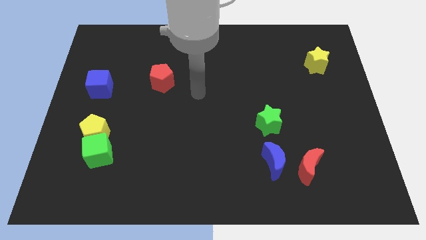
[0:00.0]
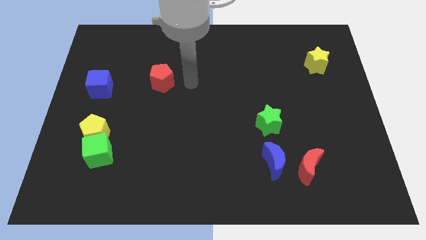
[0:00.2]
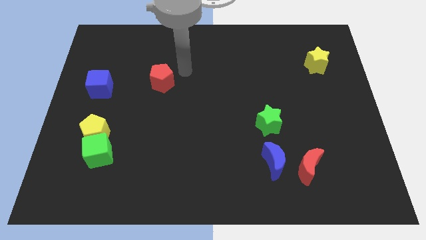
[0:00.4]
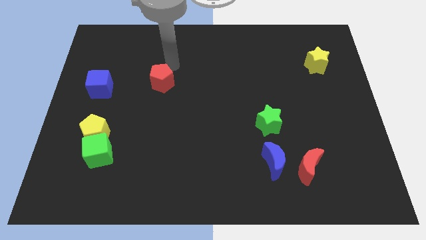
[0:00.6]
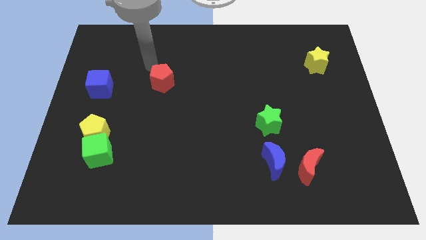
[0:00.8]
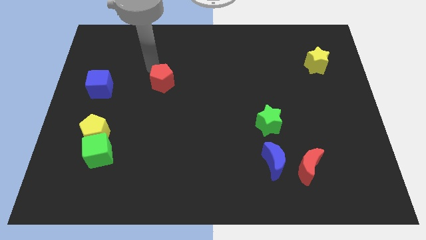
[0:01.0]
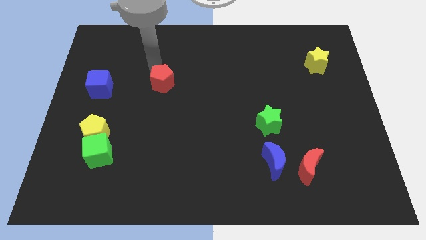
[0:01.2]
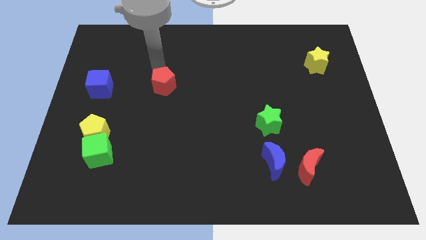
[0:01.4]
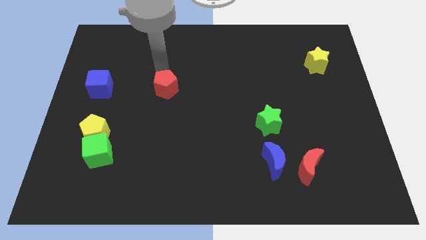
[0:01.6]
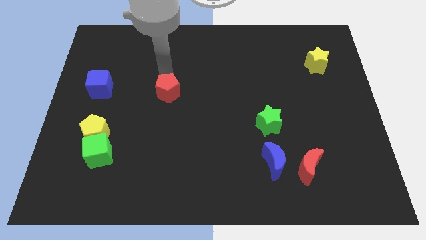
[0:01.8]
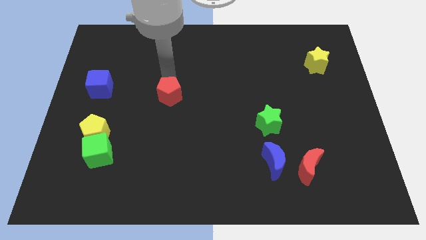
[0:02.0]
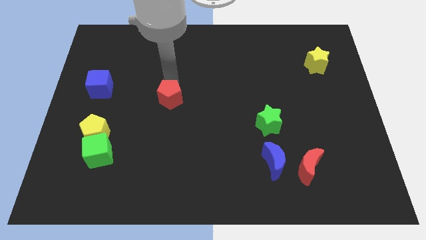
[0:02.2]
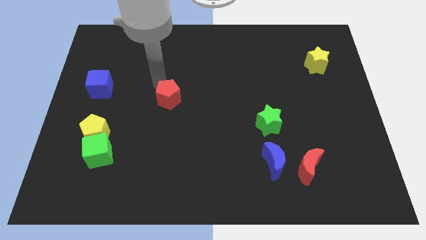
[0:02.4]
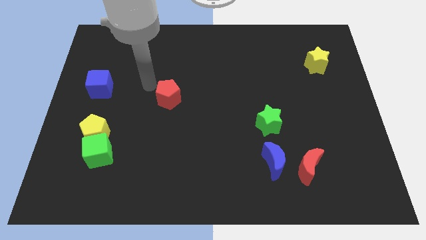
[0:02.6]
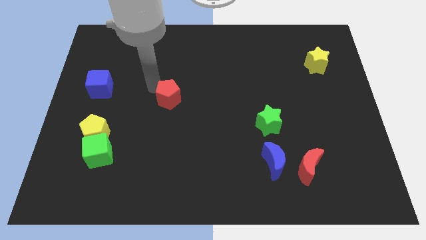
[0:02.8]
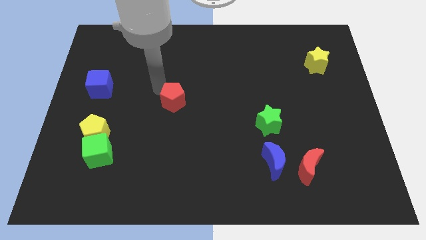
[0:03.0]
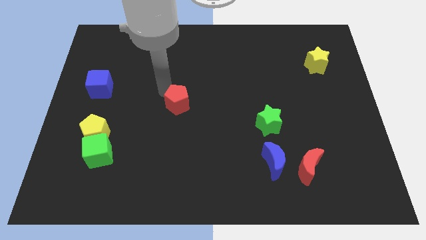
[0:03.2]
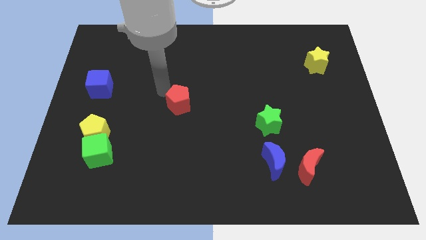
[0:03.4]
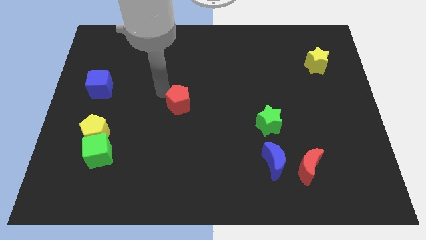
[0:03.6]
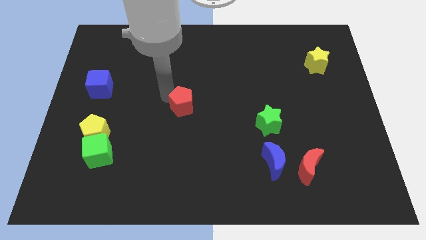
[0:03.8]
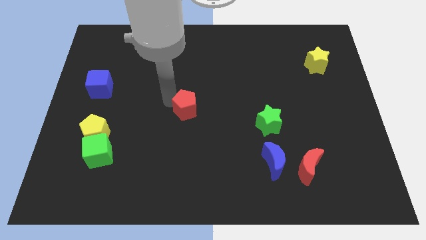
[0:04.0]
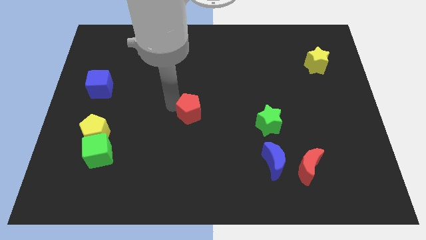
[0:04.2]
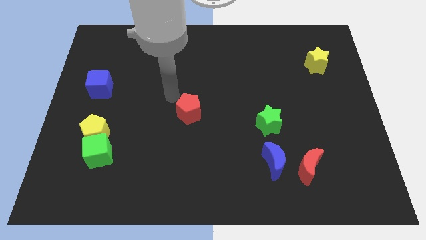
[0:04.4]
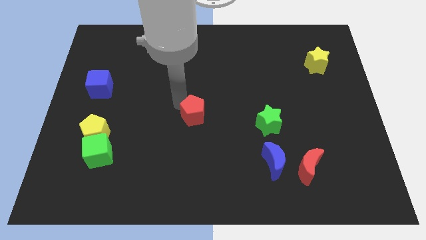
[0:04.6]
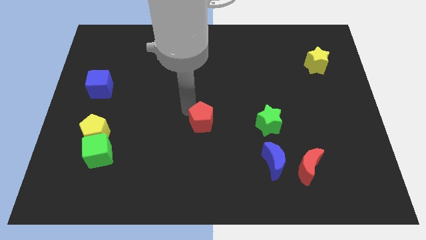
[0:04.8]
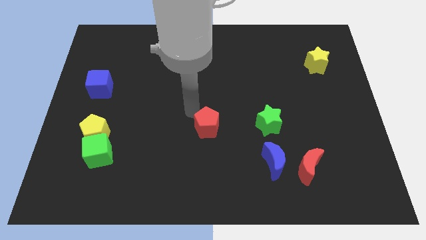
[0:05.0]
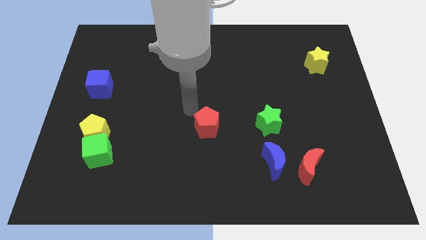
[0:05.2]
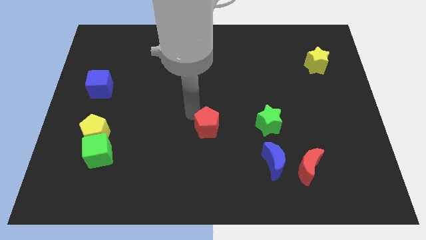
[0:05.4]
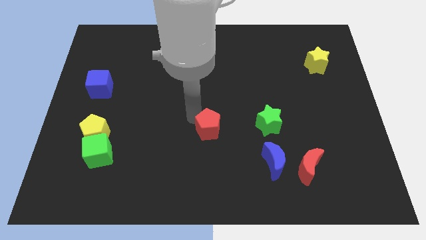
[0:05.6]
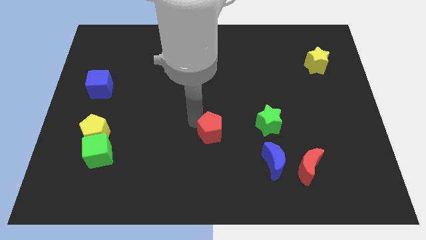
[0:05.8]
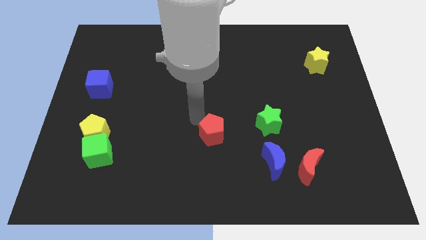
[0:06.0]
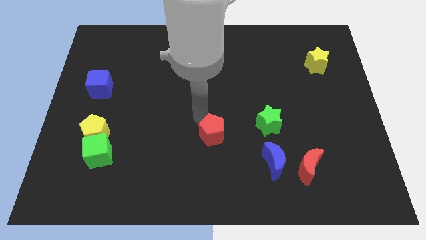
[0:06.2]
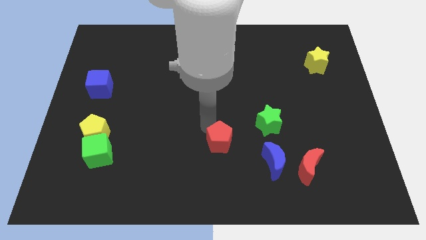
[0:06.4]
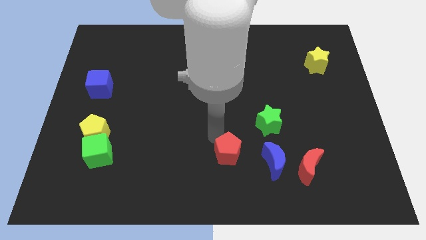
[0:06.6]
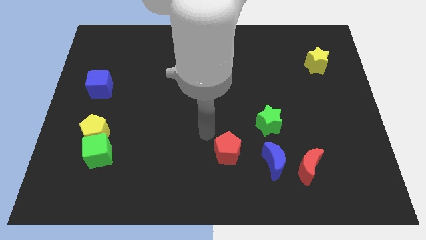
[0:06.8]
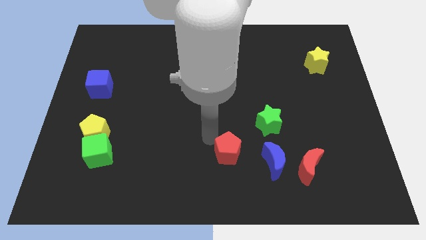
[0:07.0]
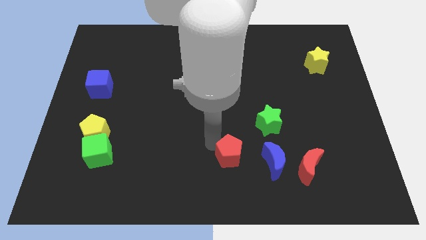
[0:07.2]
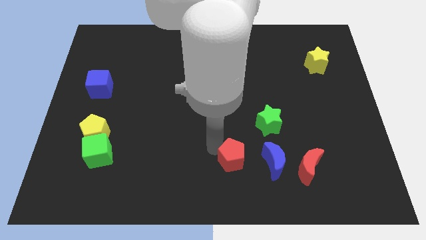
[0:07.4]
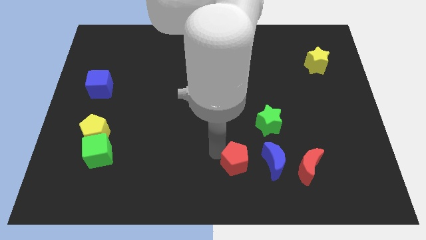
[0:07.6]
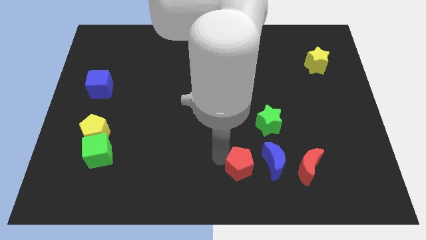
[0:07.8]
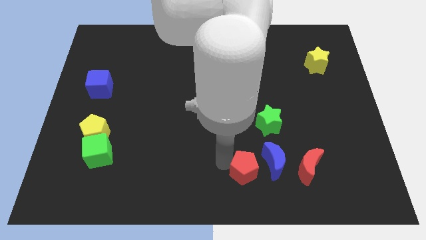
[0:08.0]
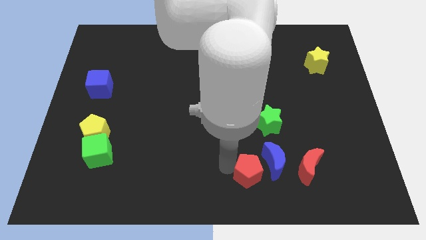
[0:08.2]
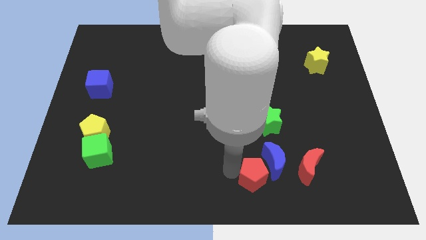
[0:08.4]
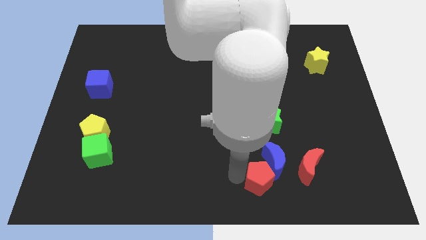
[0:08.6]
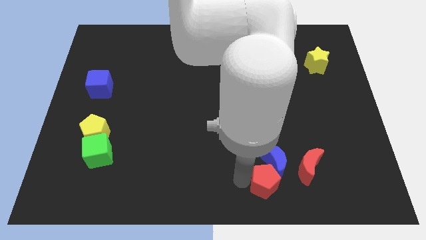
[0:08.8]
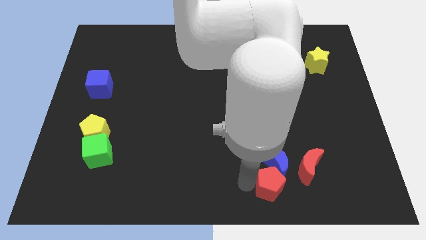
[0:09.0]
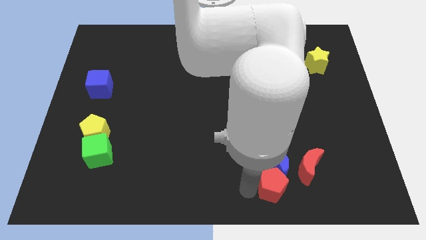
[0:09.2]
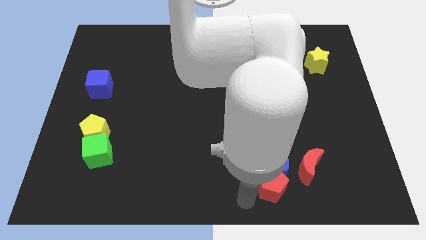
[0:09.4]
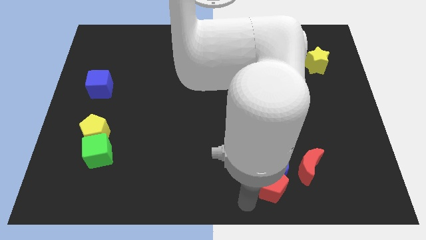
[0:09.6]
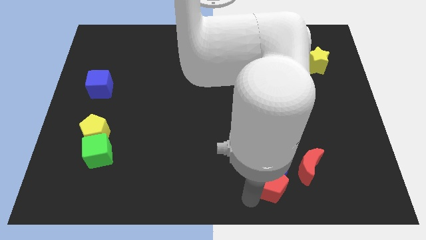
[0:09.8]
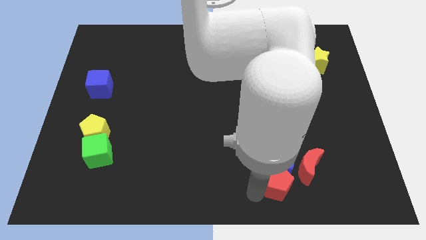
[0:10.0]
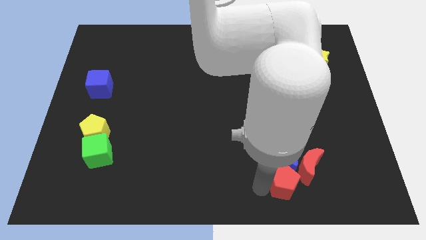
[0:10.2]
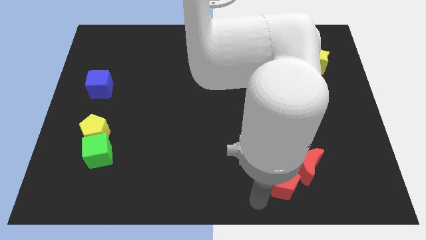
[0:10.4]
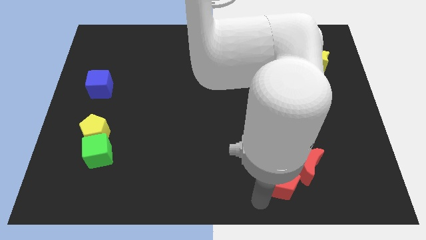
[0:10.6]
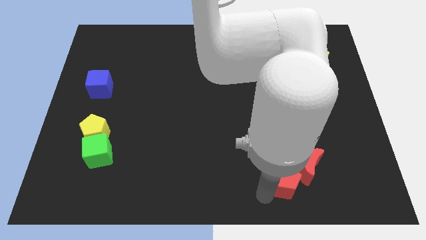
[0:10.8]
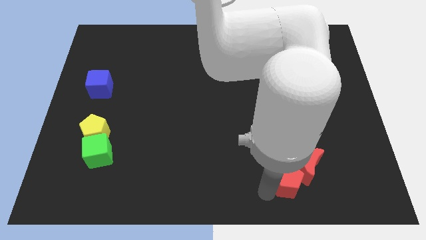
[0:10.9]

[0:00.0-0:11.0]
slide the red pentagon close to the red moon

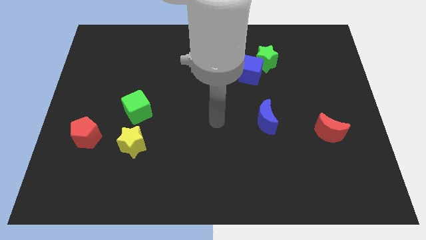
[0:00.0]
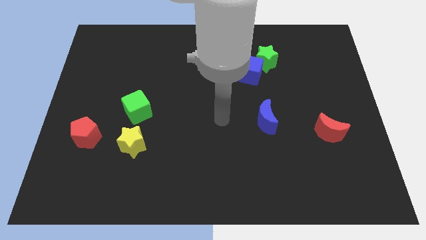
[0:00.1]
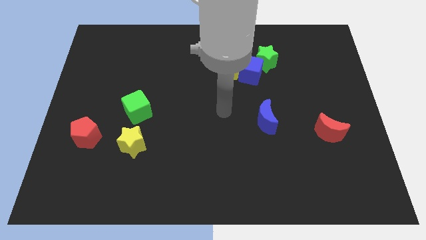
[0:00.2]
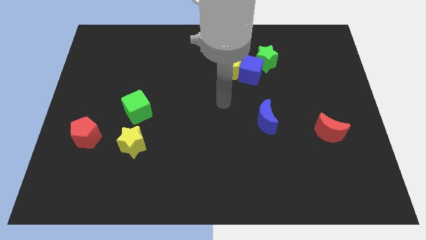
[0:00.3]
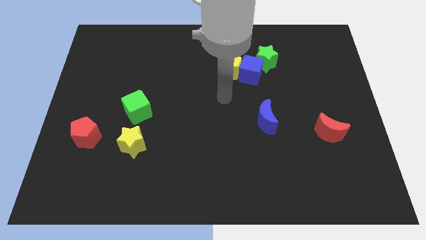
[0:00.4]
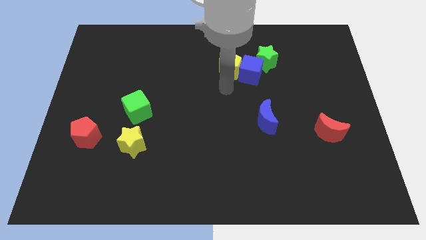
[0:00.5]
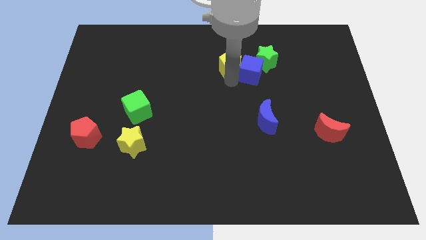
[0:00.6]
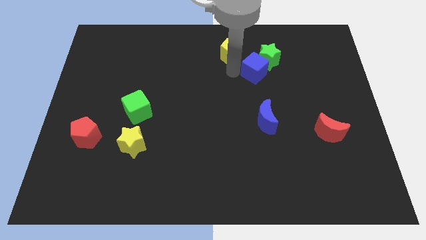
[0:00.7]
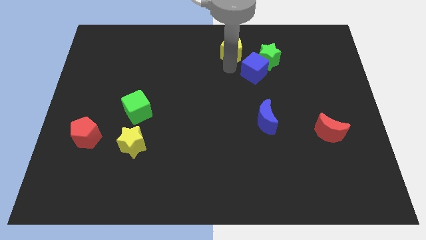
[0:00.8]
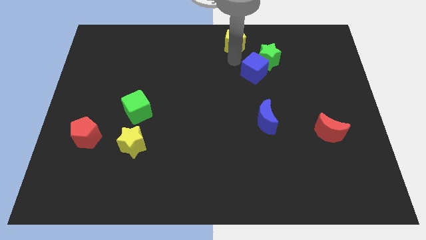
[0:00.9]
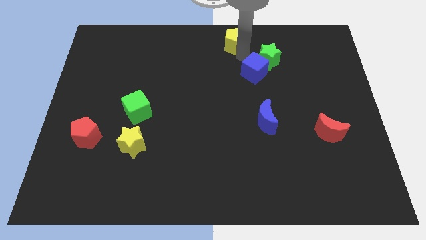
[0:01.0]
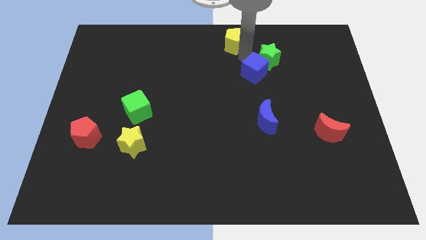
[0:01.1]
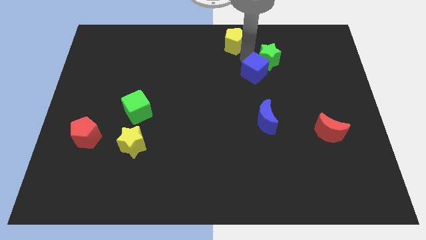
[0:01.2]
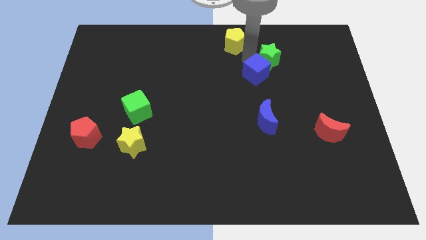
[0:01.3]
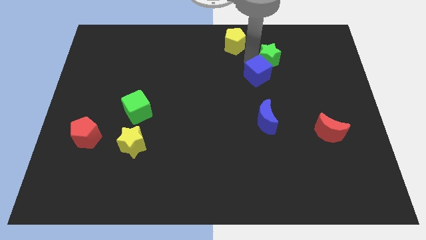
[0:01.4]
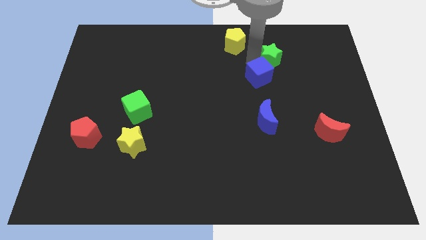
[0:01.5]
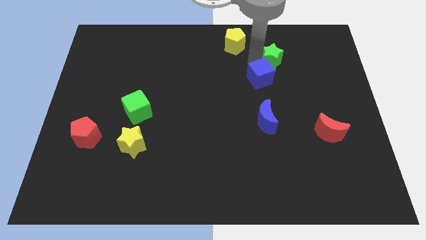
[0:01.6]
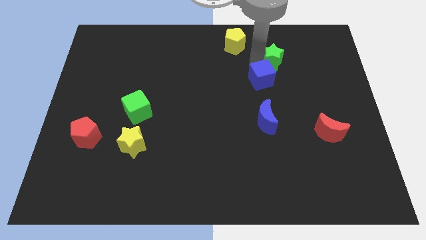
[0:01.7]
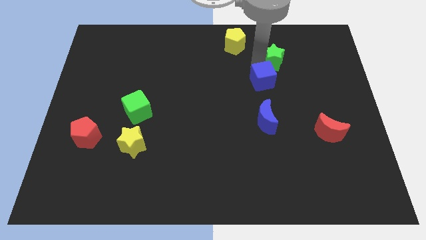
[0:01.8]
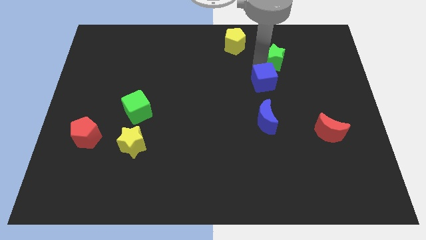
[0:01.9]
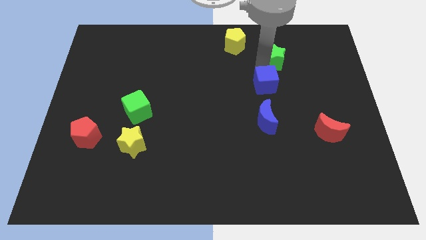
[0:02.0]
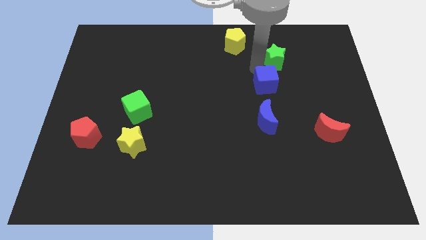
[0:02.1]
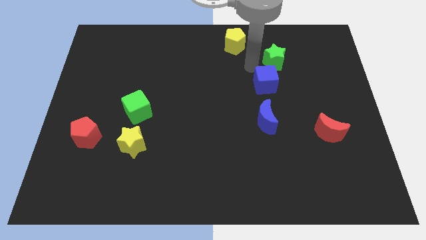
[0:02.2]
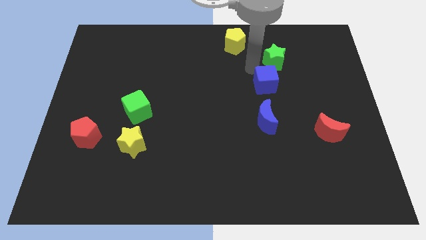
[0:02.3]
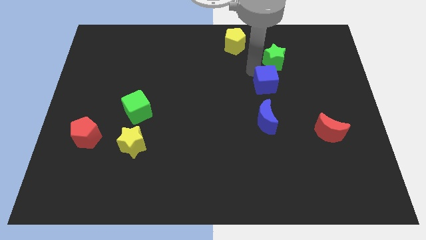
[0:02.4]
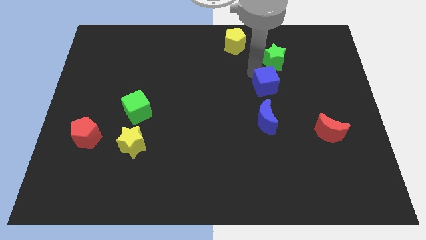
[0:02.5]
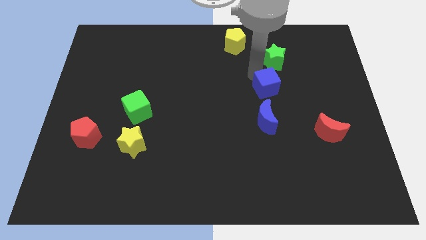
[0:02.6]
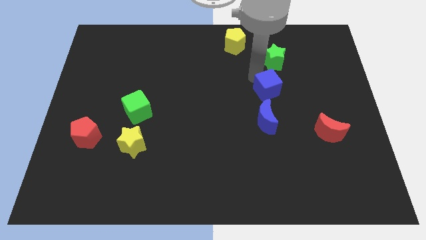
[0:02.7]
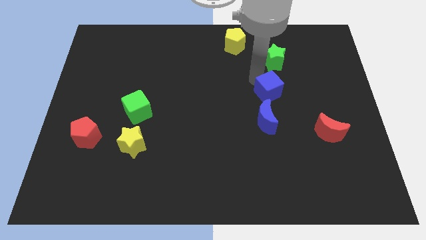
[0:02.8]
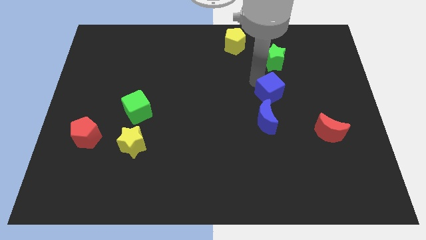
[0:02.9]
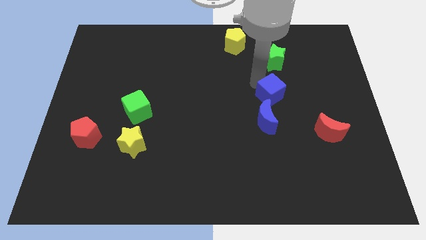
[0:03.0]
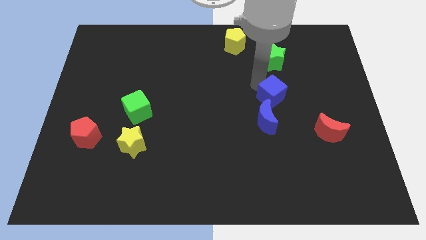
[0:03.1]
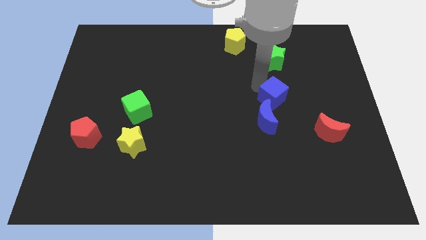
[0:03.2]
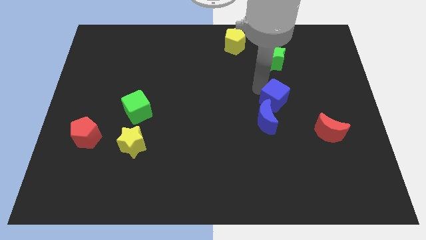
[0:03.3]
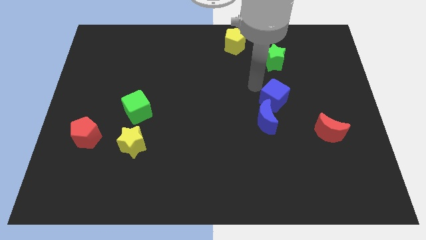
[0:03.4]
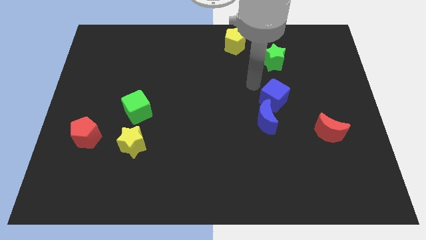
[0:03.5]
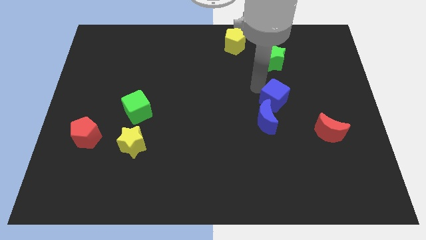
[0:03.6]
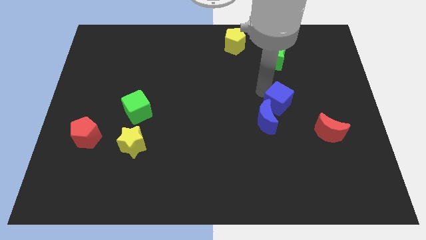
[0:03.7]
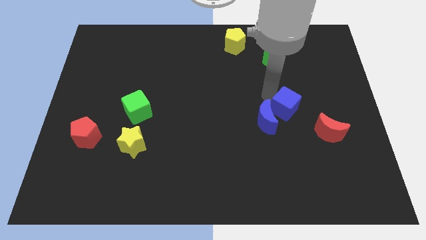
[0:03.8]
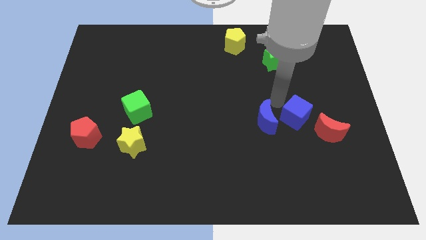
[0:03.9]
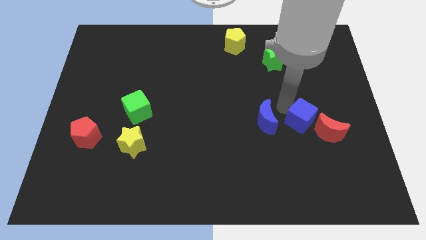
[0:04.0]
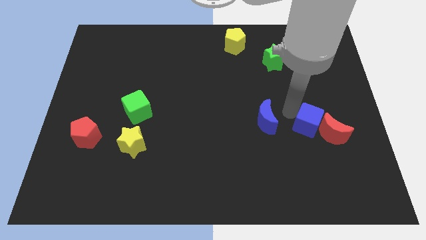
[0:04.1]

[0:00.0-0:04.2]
slide the blue cube to the red moon
